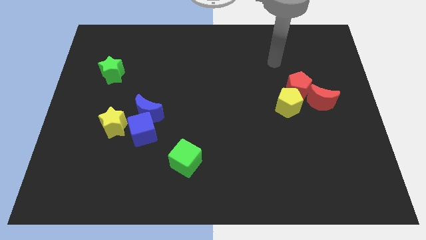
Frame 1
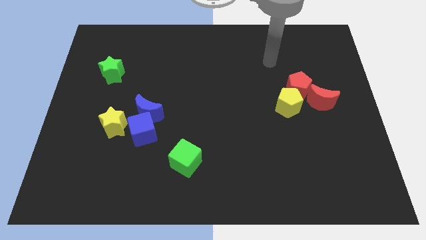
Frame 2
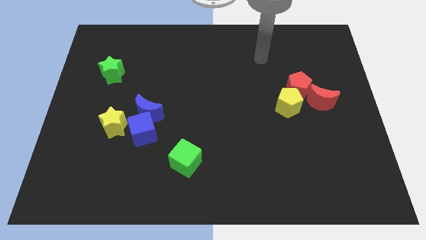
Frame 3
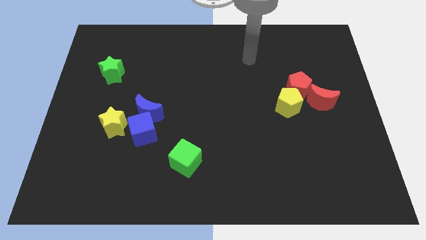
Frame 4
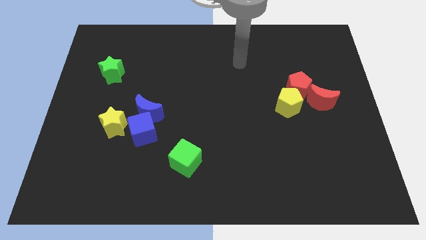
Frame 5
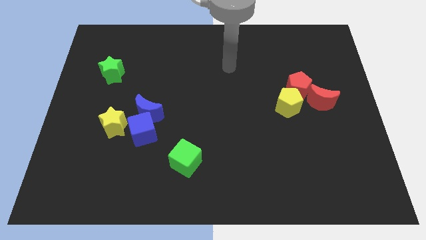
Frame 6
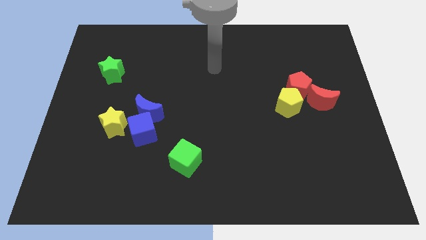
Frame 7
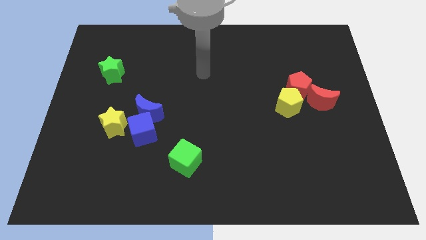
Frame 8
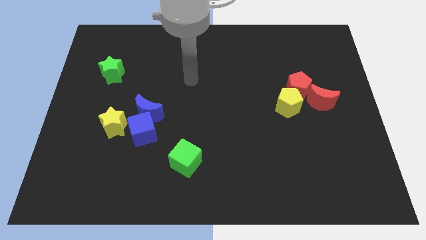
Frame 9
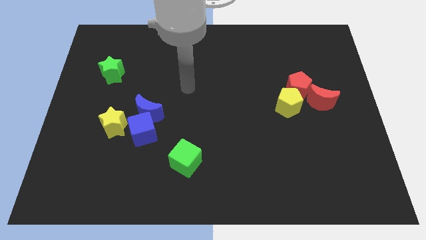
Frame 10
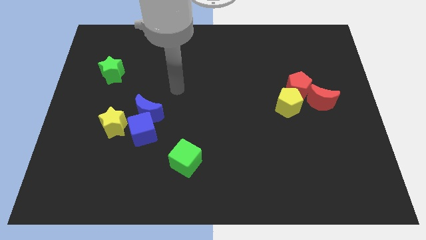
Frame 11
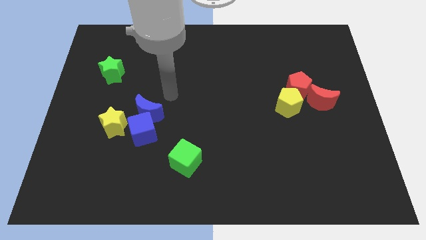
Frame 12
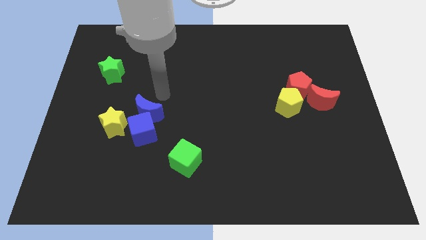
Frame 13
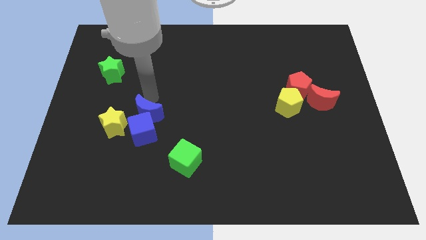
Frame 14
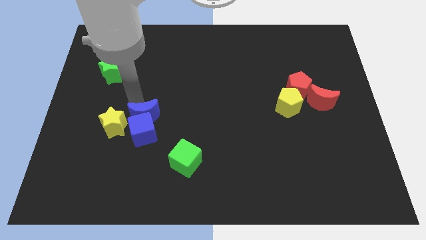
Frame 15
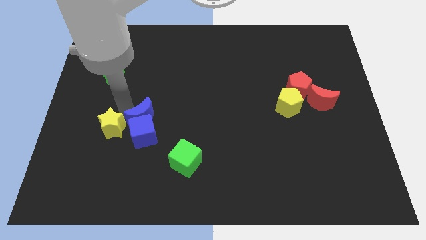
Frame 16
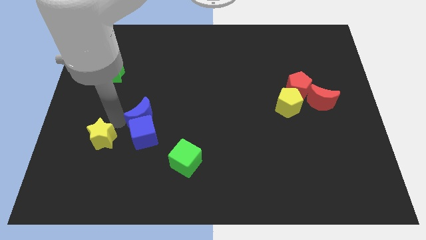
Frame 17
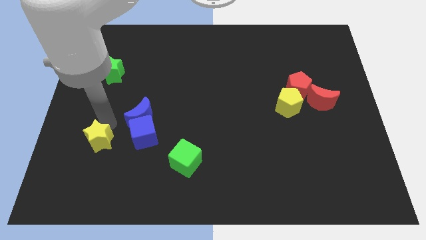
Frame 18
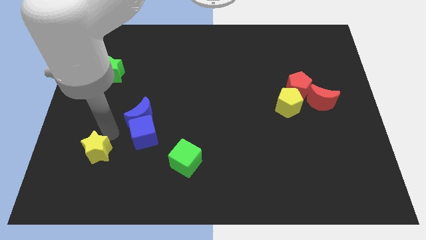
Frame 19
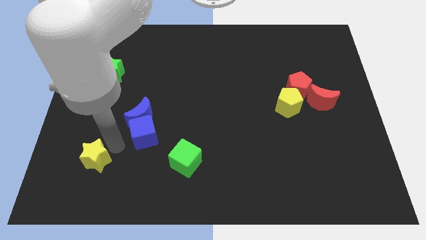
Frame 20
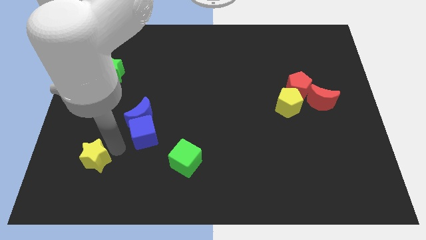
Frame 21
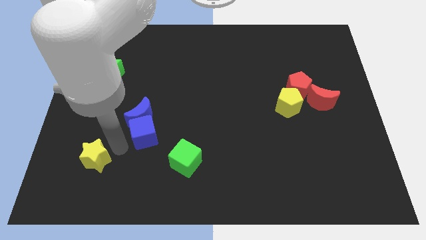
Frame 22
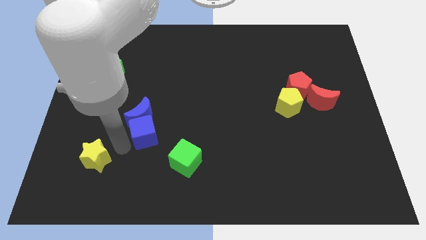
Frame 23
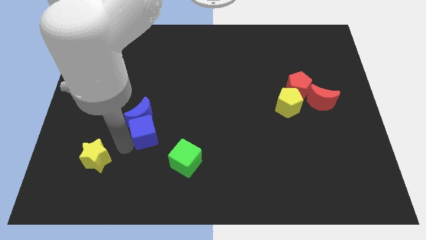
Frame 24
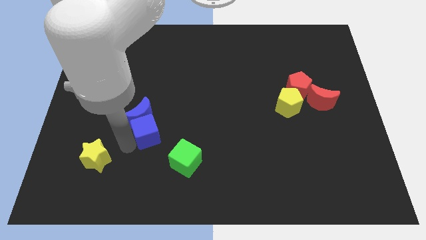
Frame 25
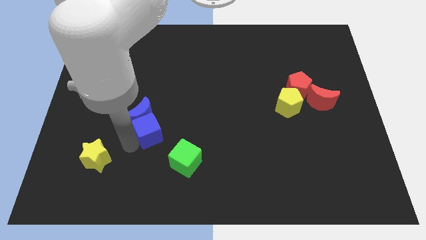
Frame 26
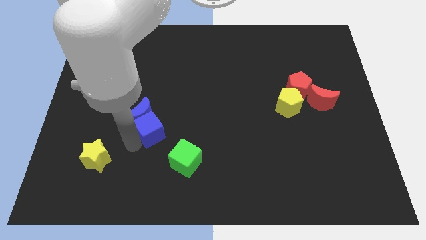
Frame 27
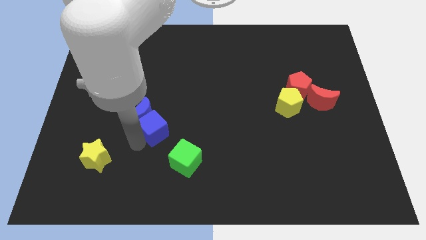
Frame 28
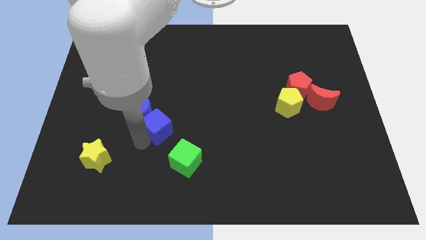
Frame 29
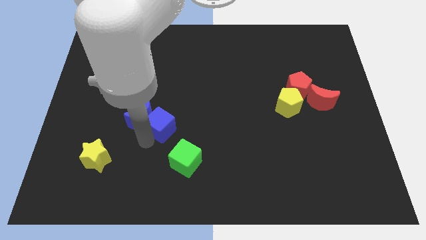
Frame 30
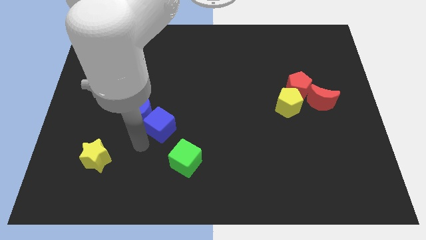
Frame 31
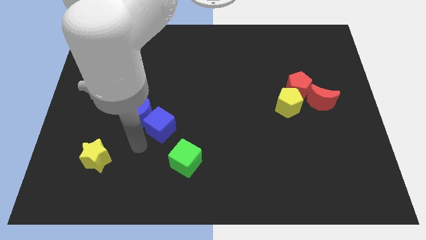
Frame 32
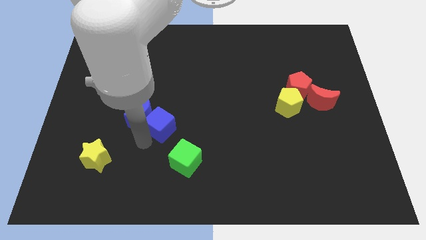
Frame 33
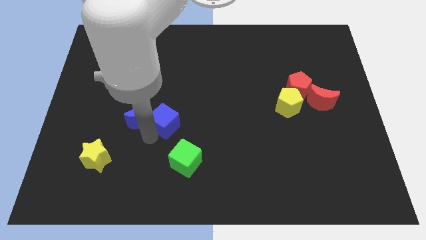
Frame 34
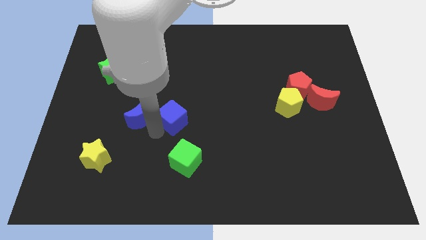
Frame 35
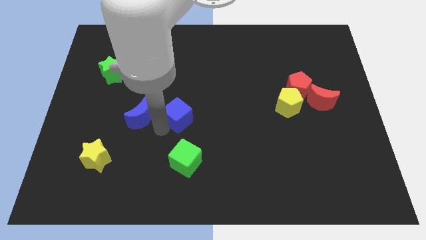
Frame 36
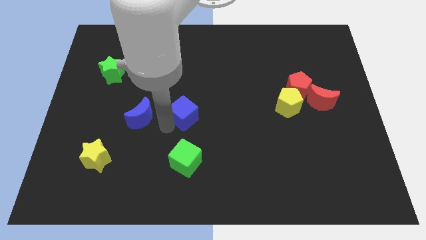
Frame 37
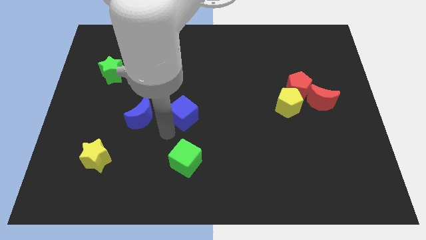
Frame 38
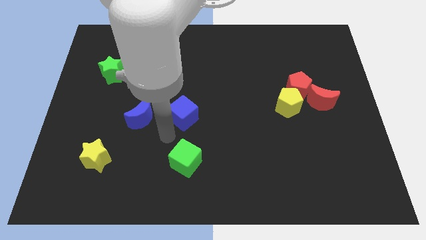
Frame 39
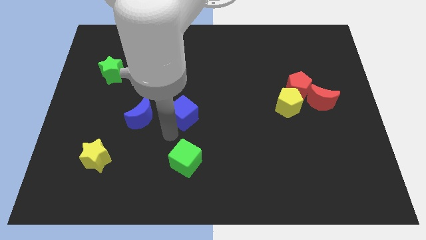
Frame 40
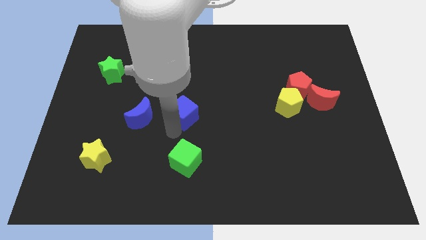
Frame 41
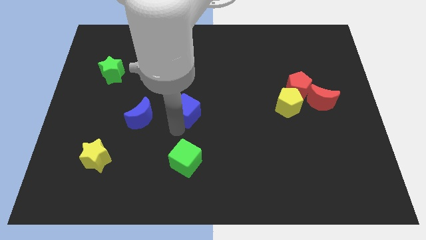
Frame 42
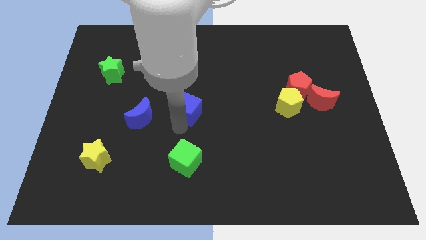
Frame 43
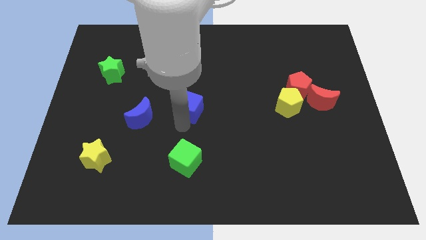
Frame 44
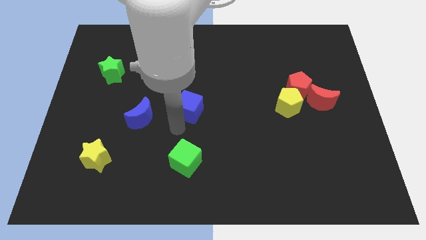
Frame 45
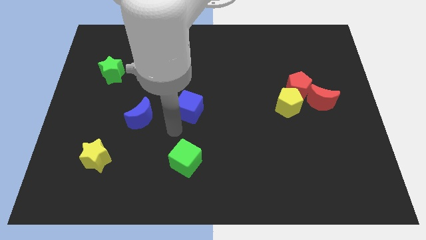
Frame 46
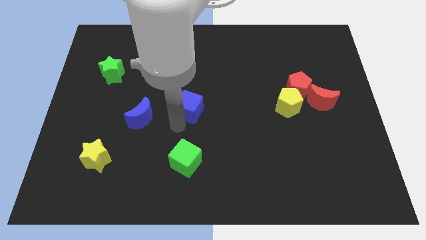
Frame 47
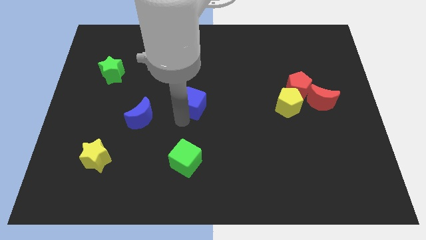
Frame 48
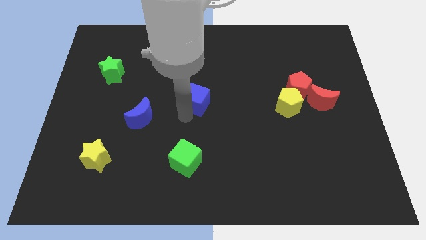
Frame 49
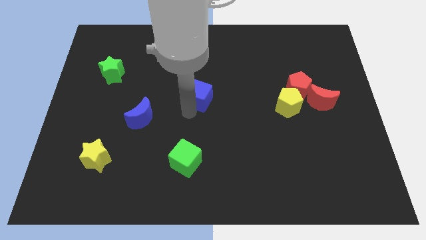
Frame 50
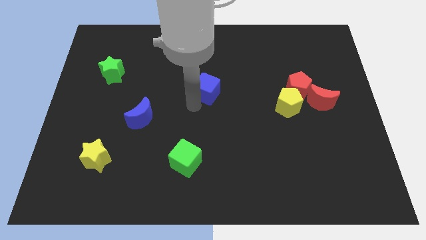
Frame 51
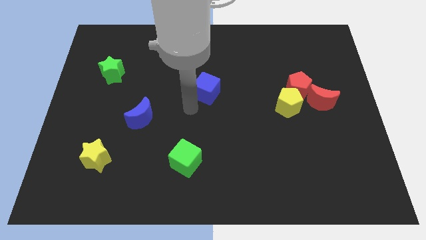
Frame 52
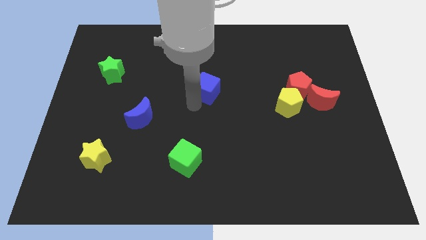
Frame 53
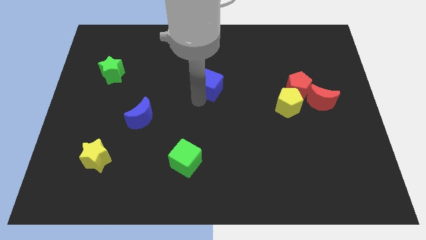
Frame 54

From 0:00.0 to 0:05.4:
slide the blue cube diagonally up and right

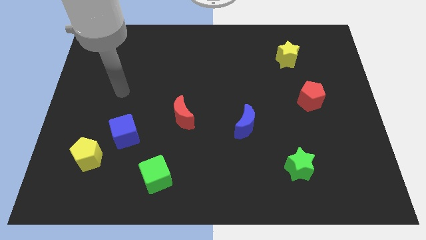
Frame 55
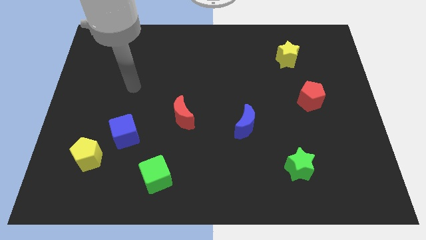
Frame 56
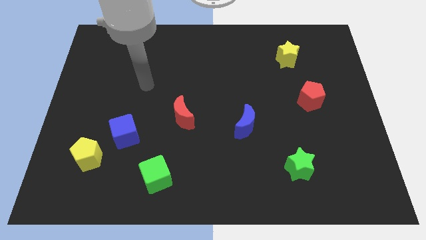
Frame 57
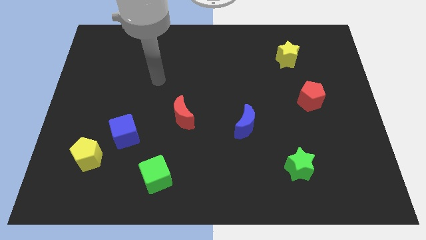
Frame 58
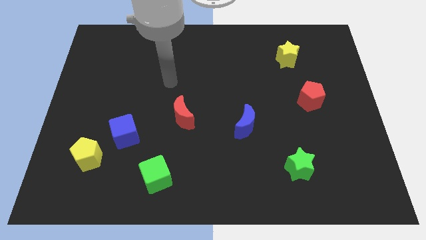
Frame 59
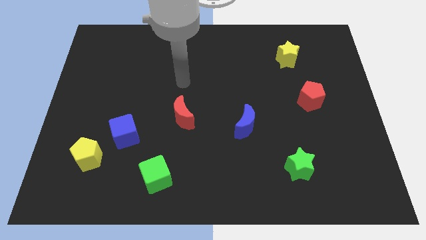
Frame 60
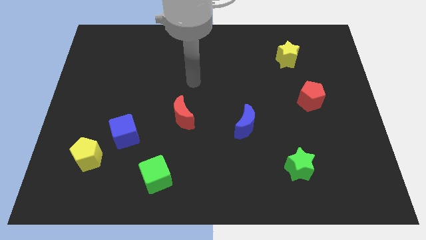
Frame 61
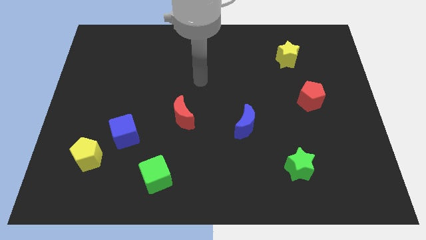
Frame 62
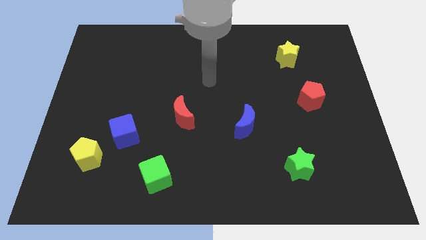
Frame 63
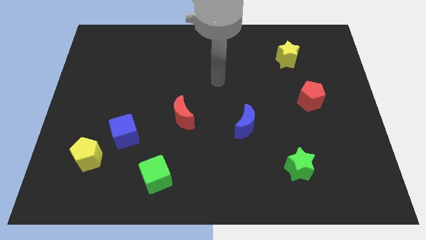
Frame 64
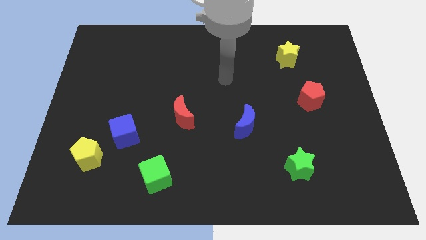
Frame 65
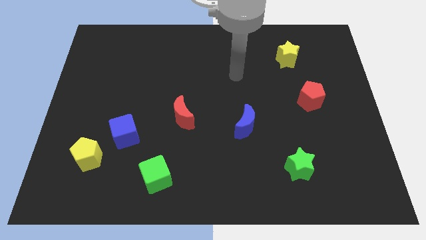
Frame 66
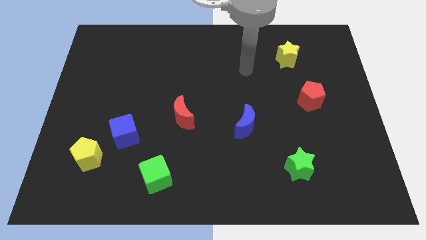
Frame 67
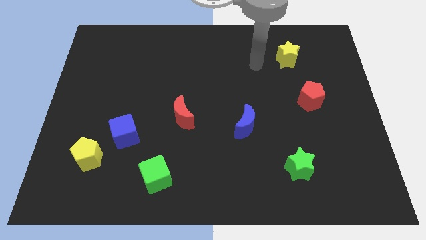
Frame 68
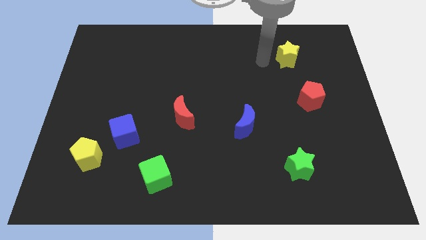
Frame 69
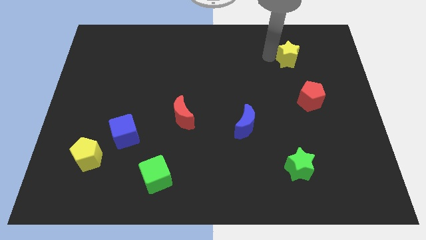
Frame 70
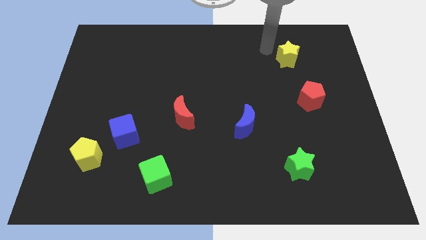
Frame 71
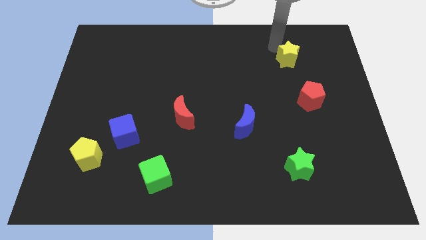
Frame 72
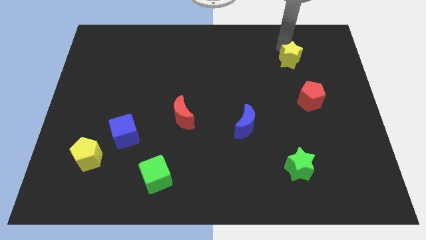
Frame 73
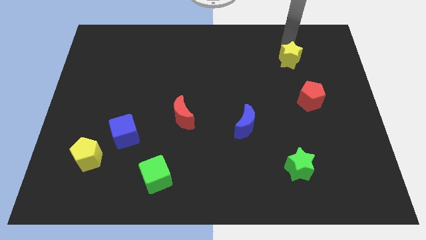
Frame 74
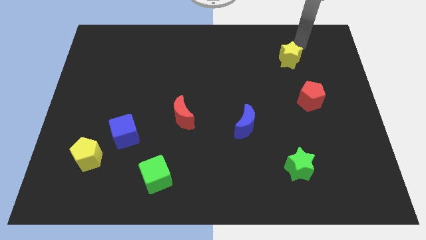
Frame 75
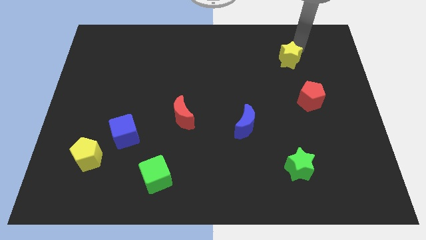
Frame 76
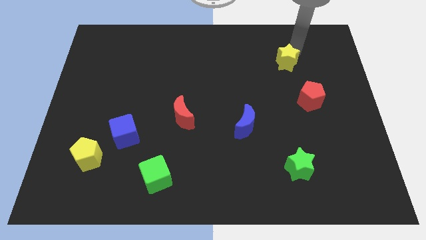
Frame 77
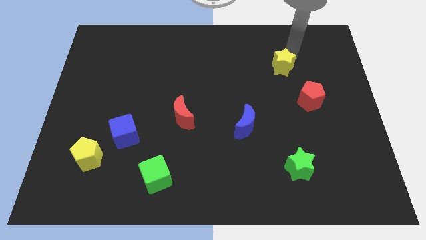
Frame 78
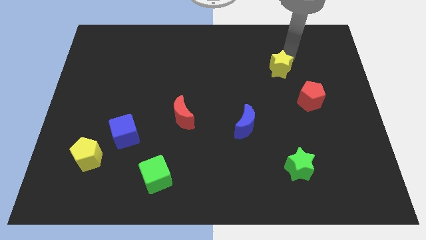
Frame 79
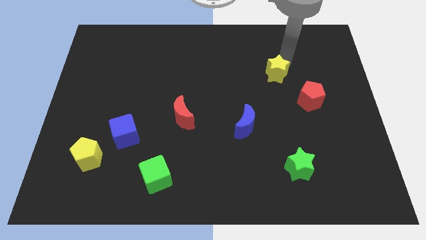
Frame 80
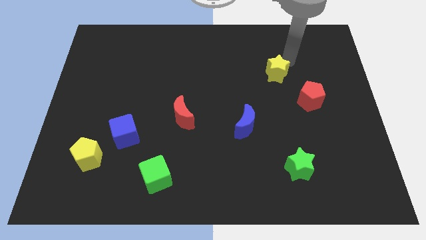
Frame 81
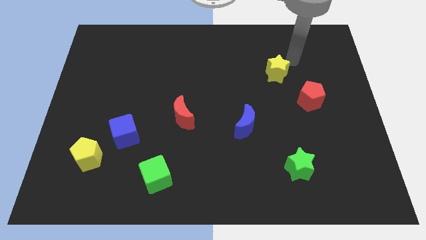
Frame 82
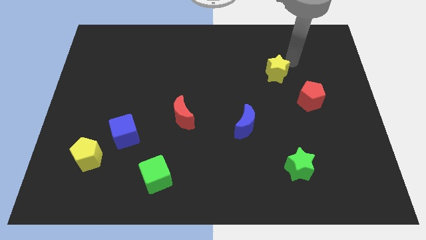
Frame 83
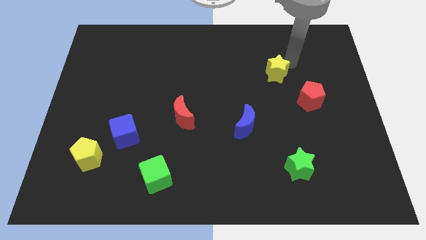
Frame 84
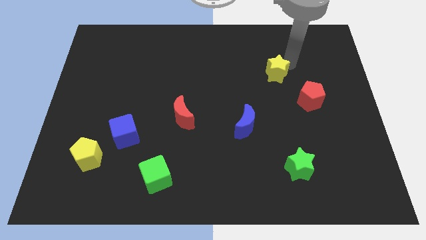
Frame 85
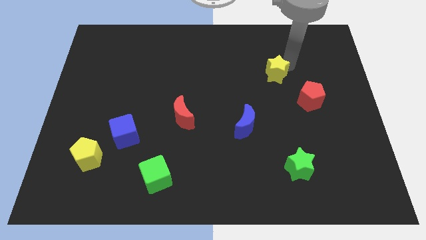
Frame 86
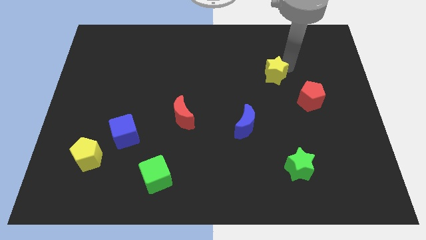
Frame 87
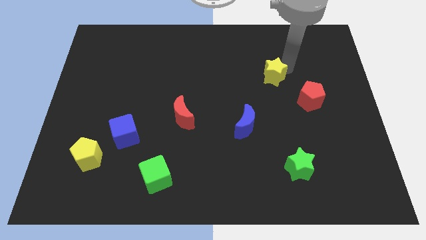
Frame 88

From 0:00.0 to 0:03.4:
push the yellow star a little downwards and left diagonally
